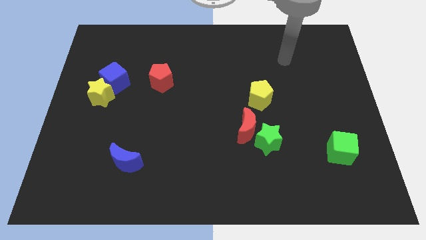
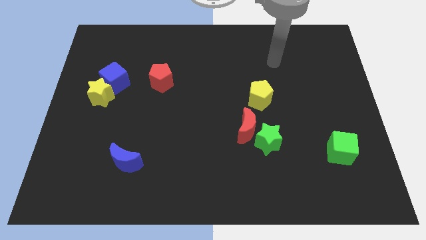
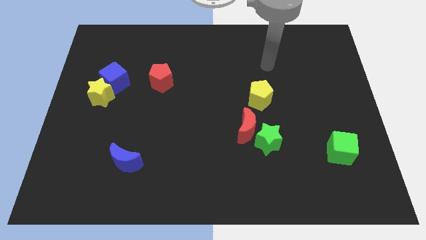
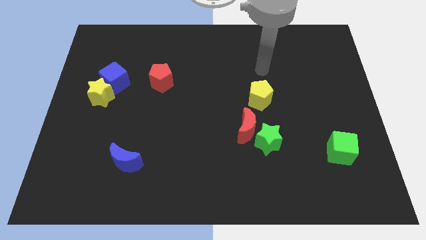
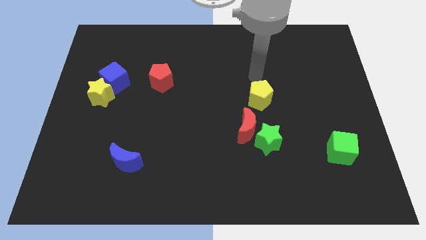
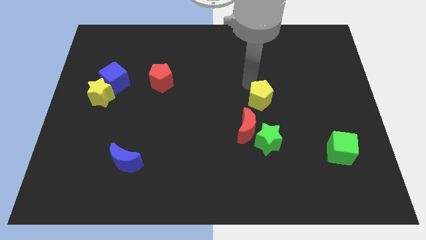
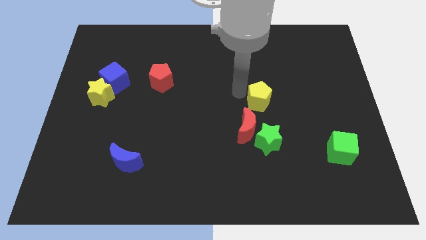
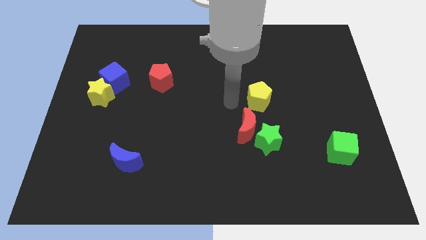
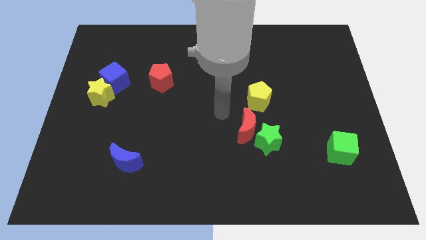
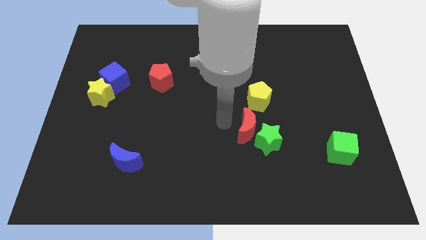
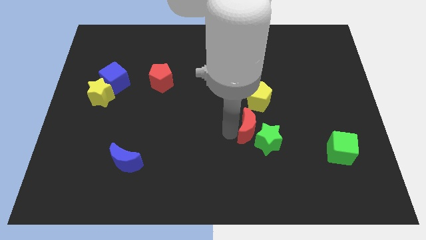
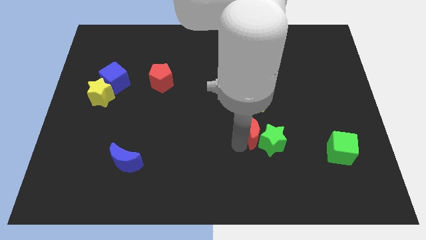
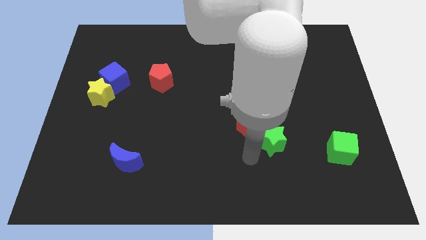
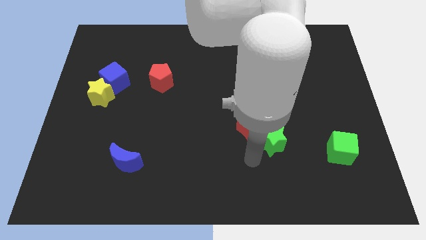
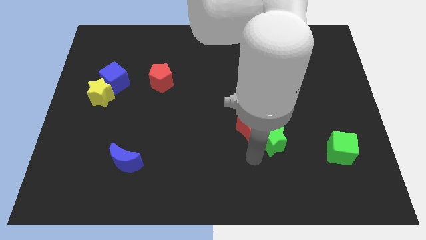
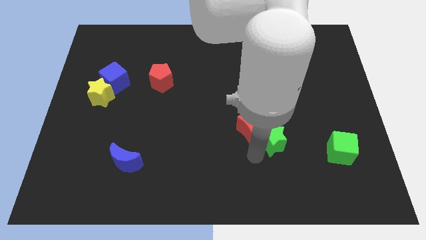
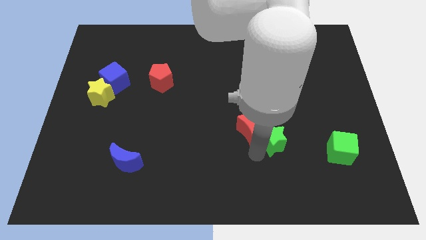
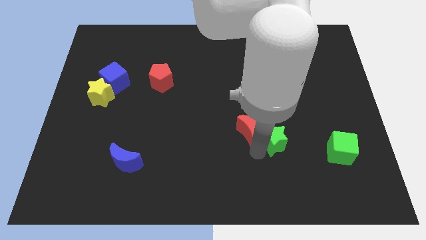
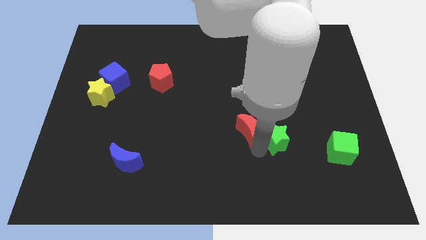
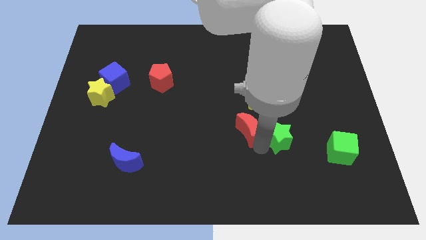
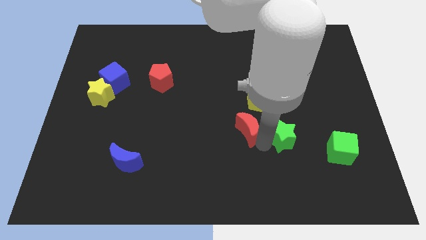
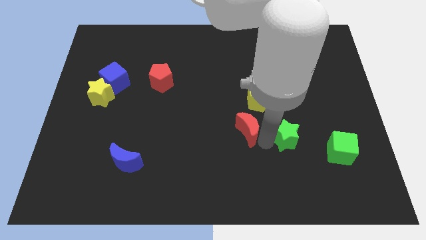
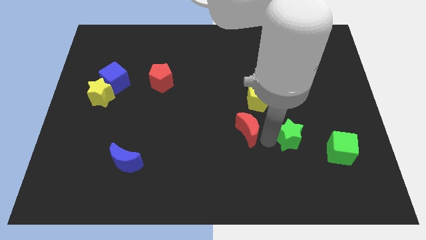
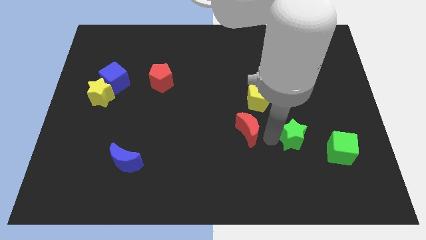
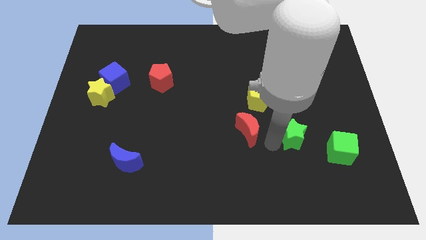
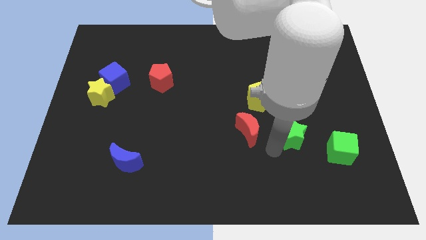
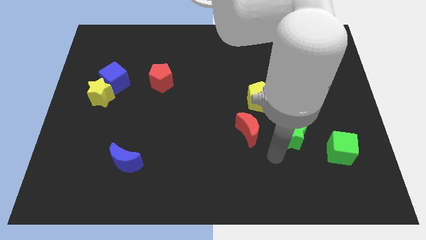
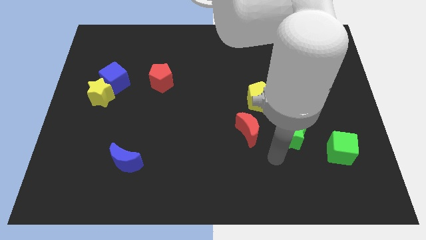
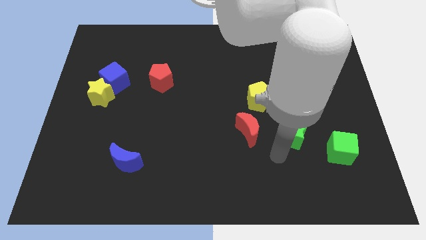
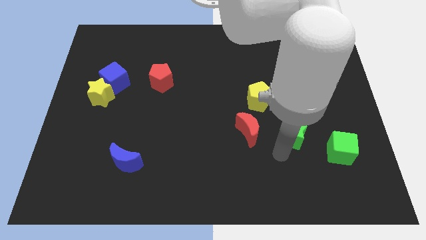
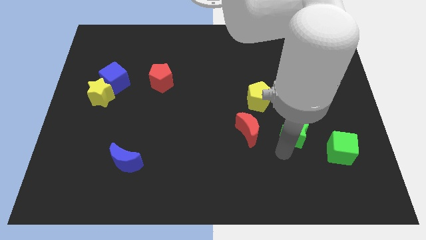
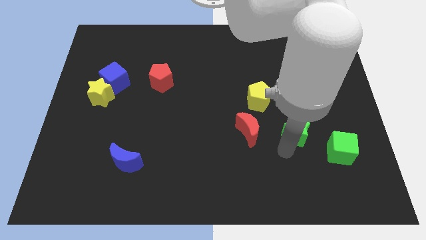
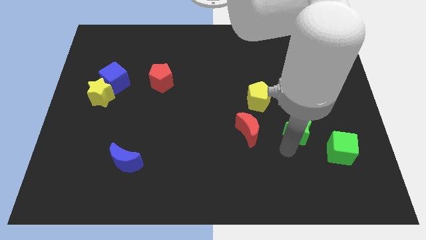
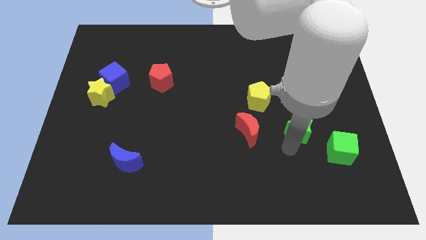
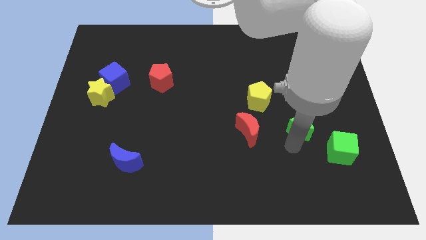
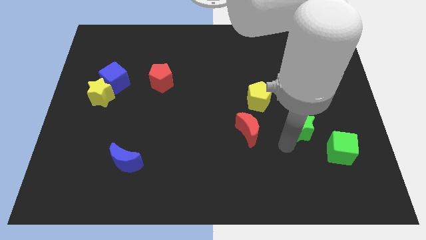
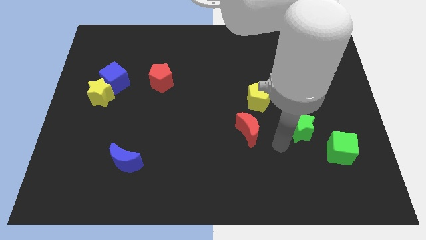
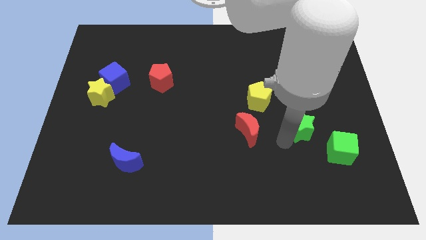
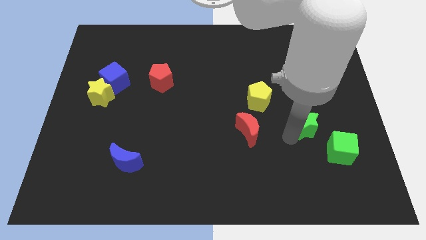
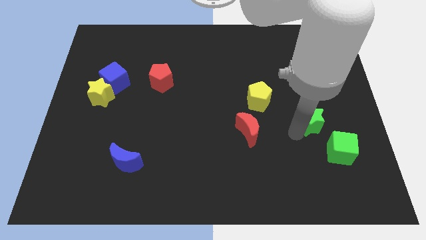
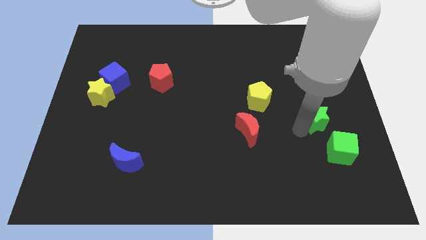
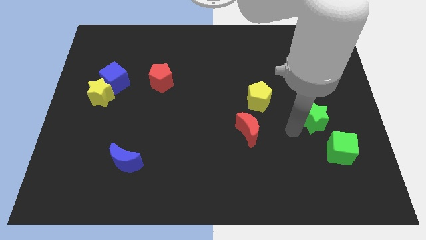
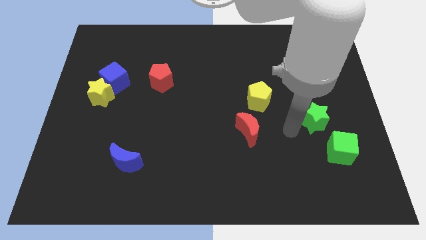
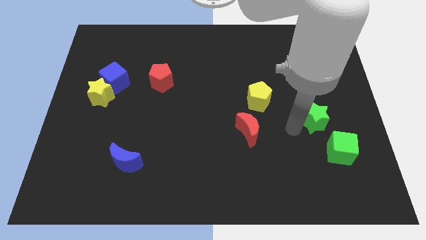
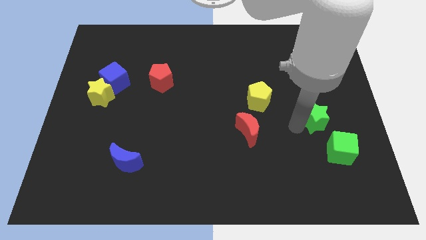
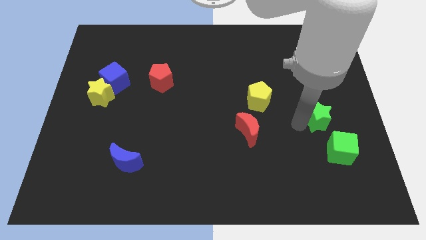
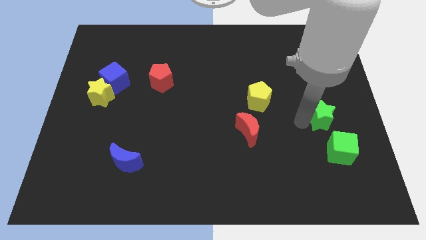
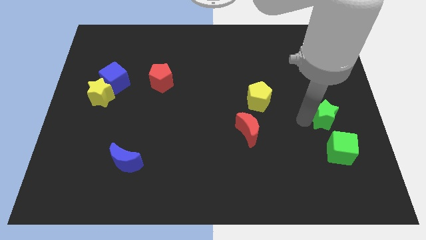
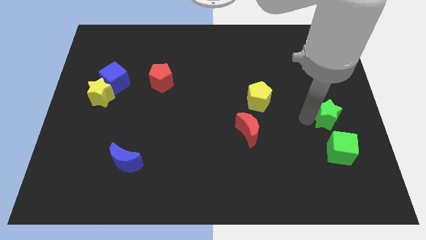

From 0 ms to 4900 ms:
put the green star to the right side

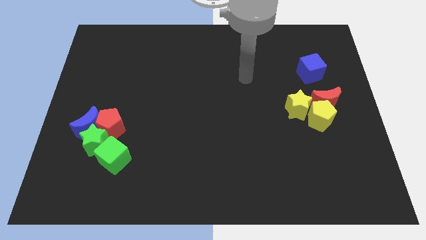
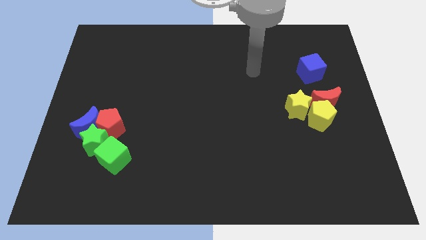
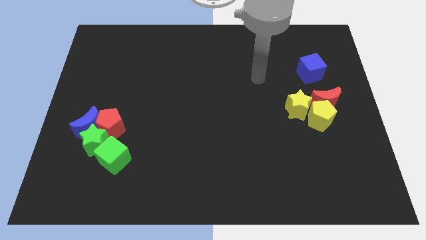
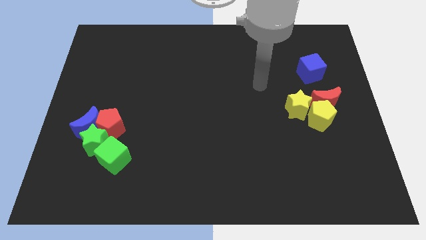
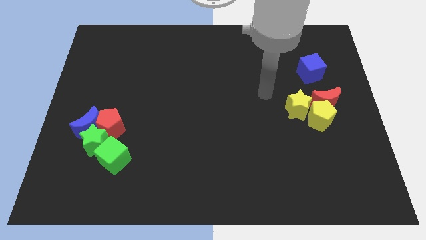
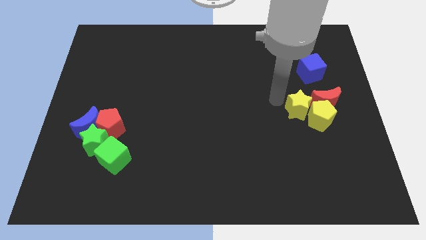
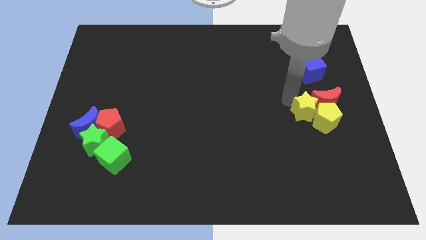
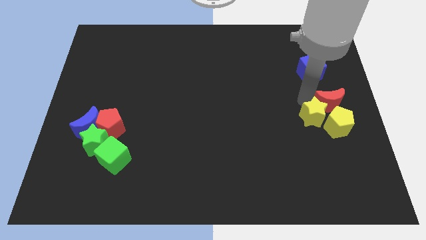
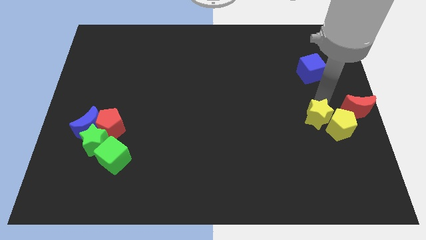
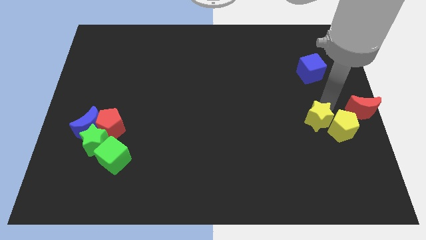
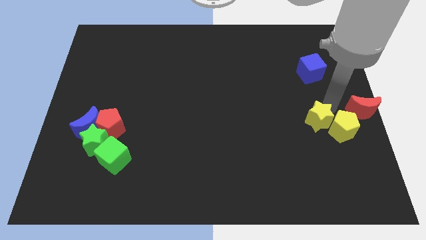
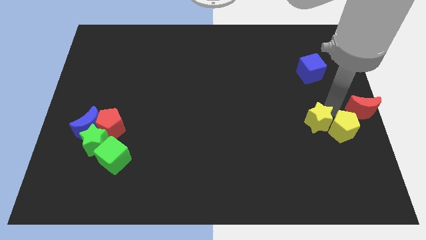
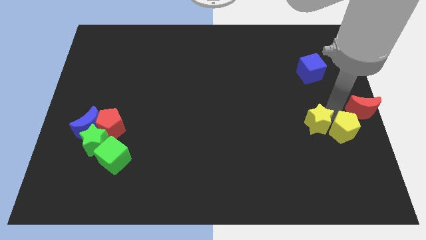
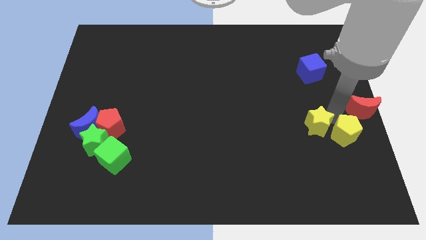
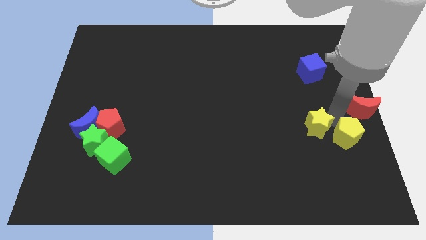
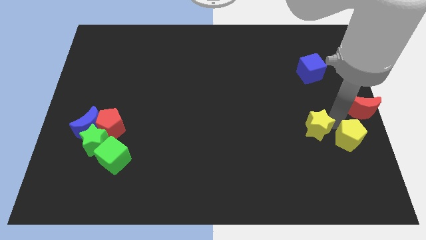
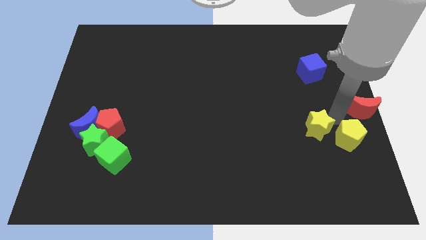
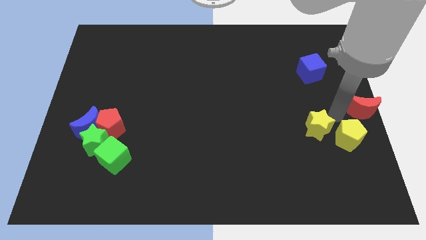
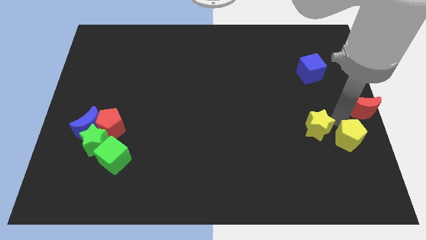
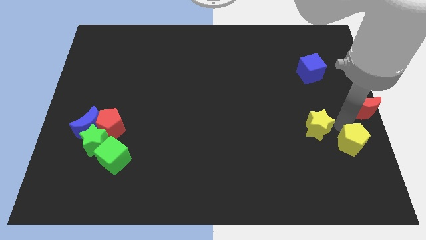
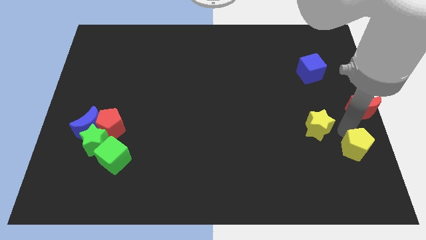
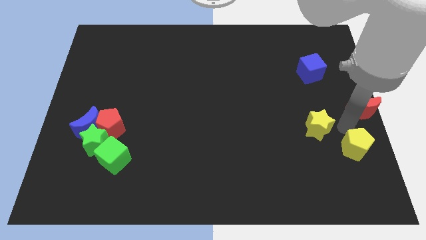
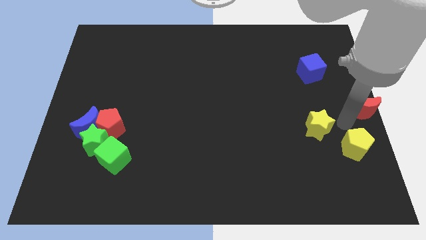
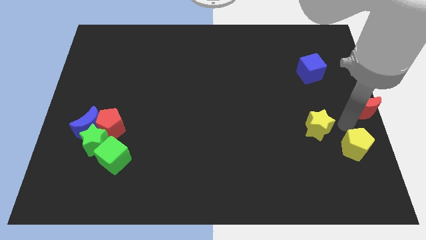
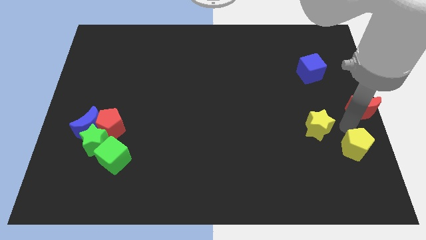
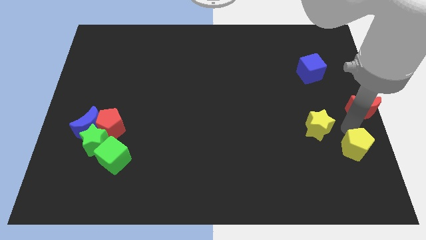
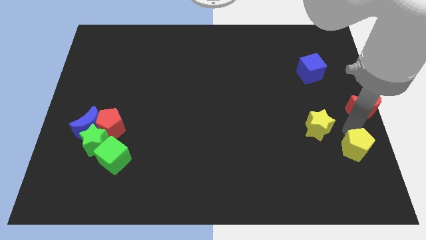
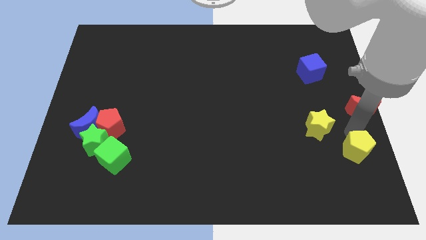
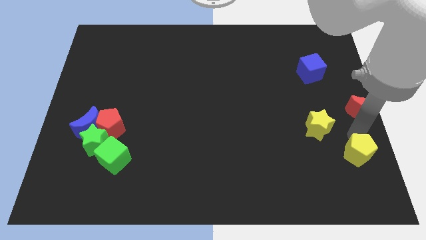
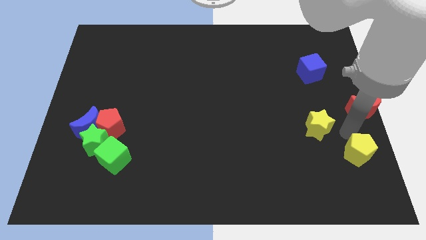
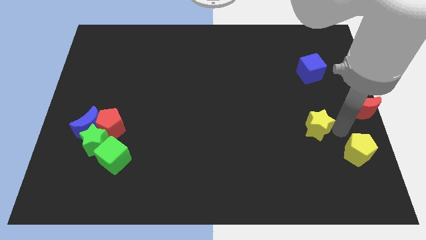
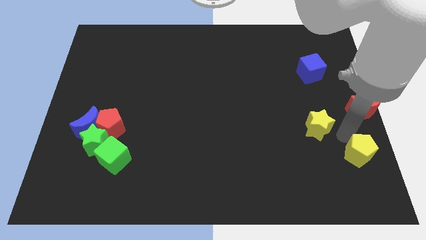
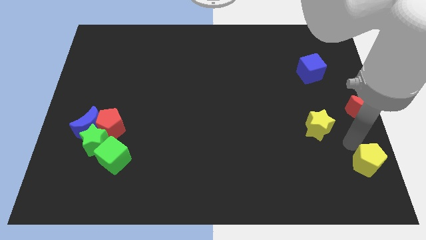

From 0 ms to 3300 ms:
slide the yellow pentagon to the lower right corner

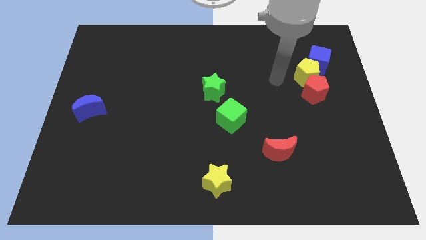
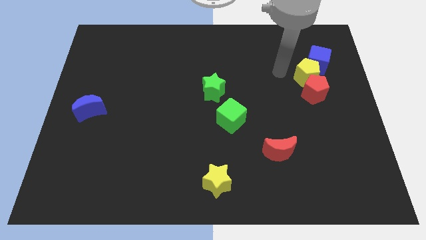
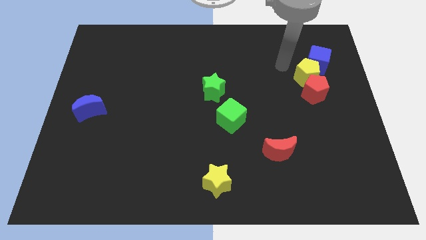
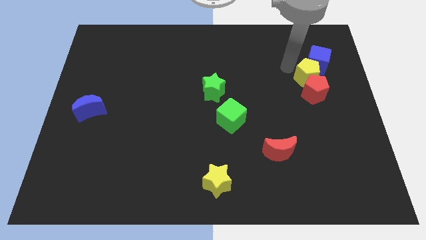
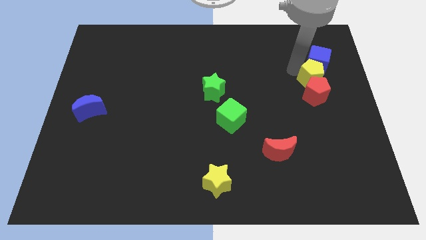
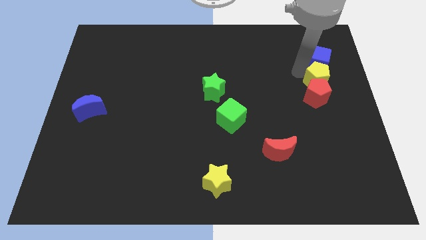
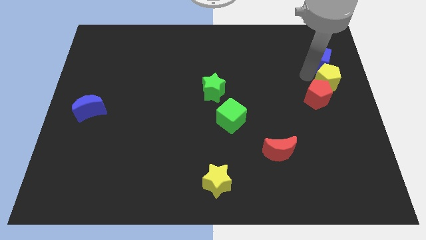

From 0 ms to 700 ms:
put the yellow pentagon to the right side of the board
